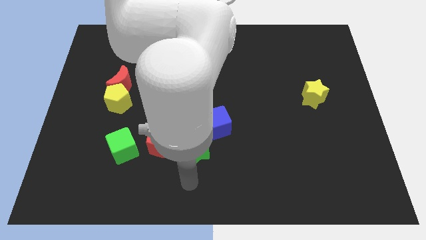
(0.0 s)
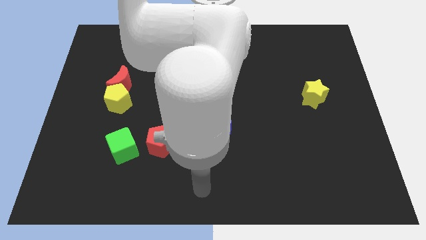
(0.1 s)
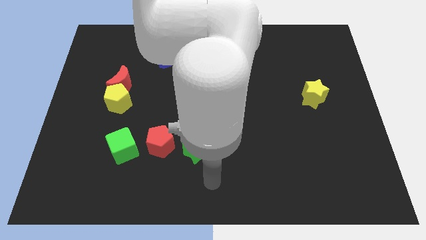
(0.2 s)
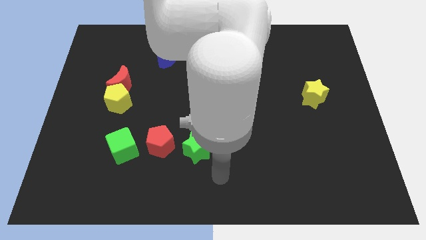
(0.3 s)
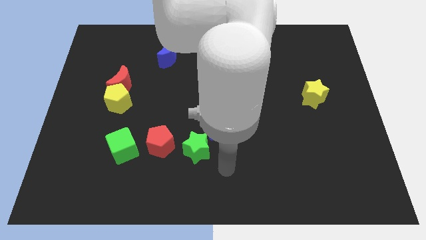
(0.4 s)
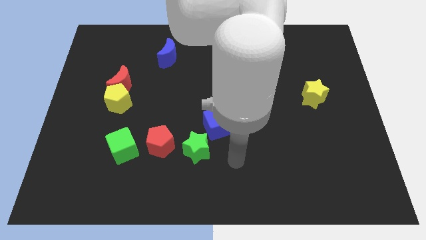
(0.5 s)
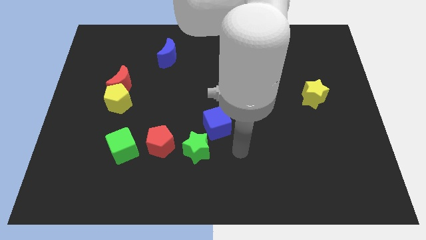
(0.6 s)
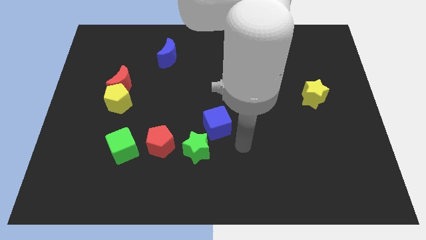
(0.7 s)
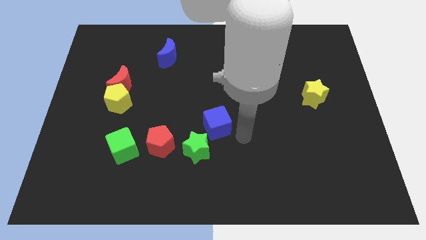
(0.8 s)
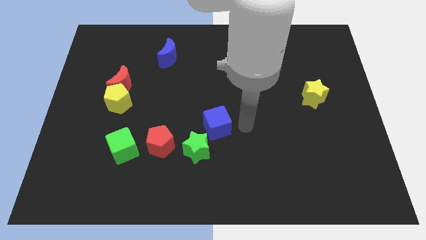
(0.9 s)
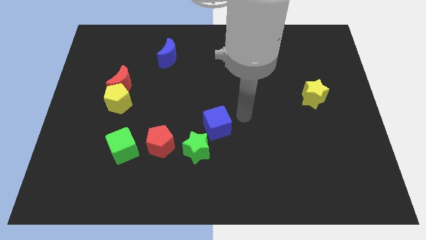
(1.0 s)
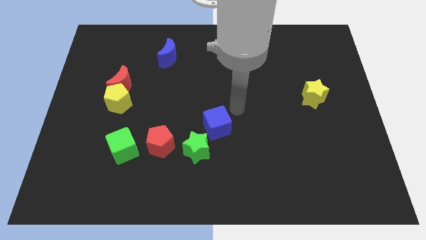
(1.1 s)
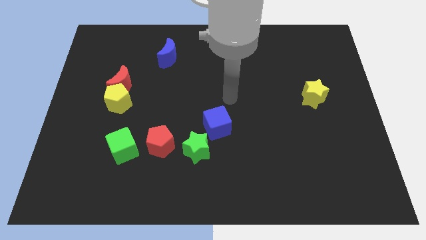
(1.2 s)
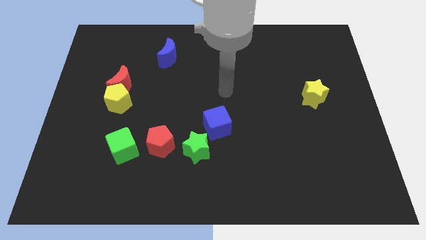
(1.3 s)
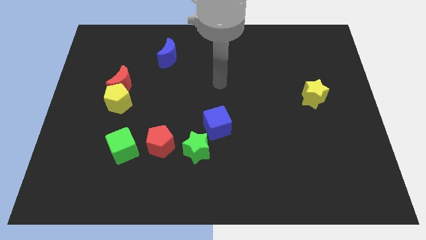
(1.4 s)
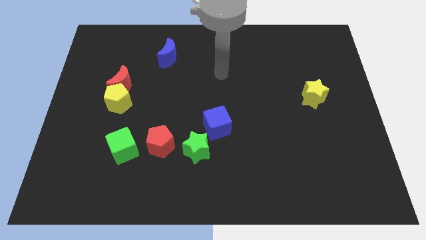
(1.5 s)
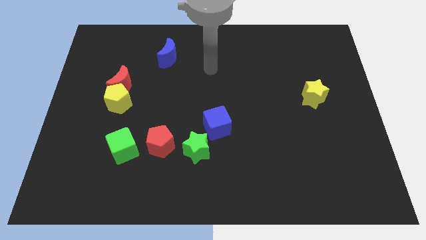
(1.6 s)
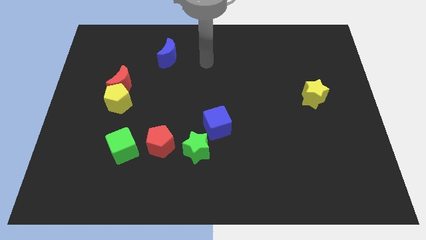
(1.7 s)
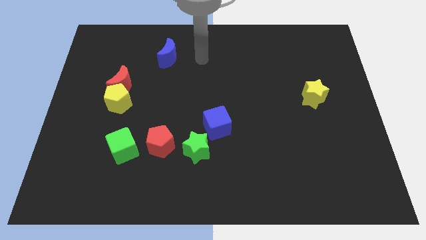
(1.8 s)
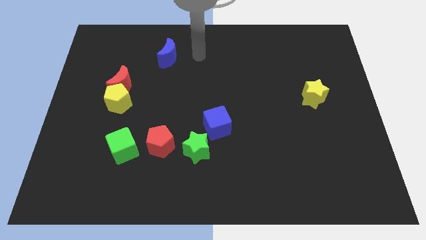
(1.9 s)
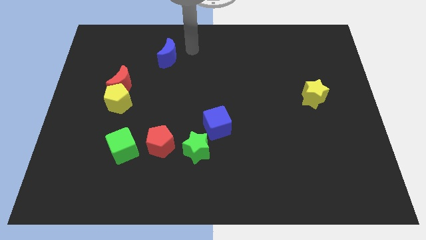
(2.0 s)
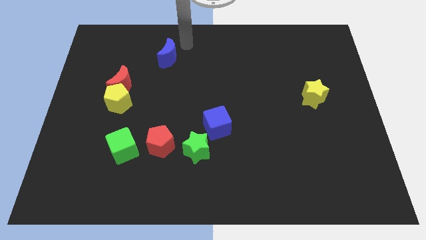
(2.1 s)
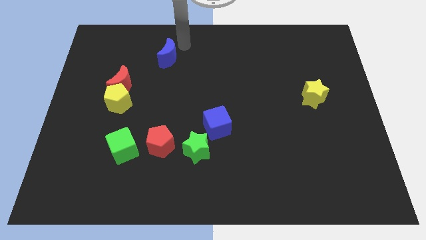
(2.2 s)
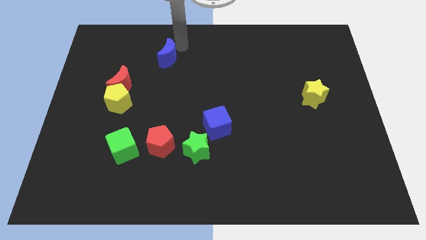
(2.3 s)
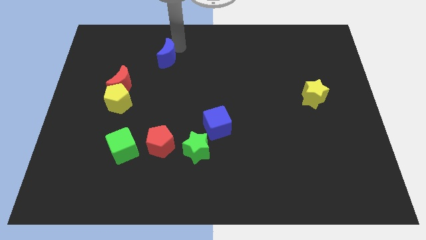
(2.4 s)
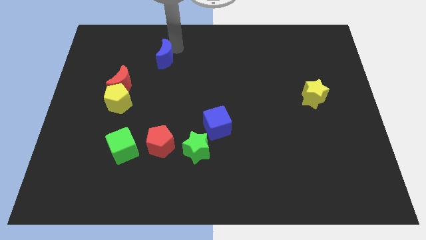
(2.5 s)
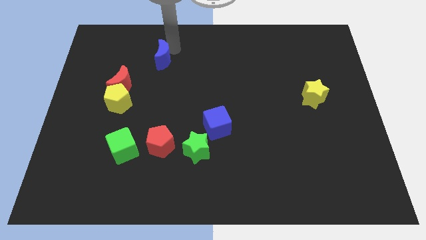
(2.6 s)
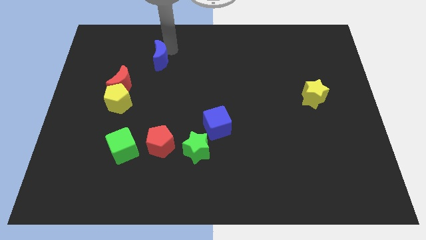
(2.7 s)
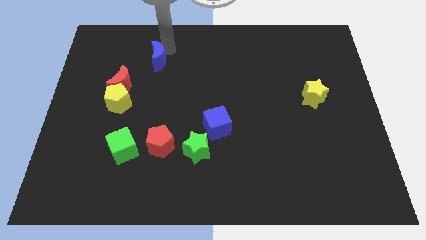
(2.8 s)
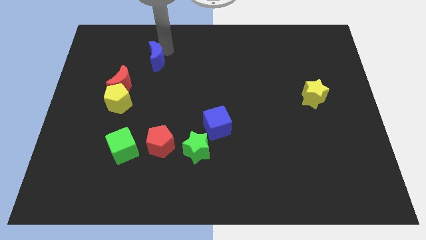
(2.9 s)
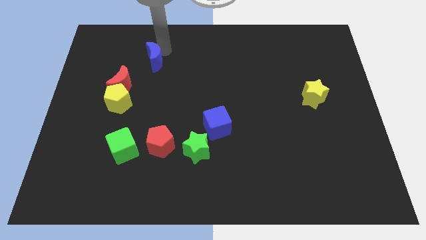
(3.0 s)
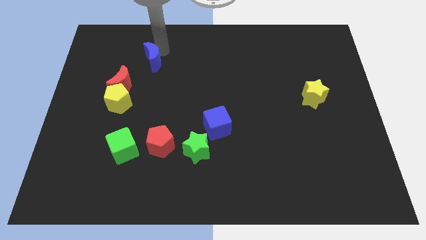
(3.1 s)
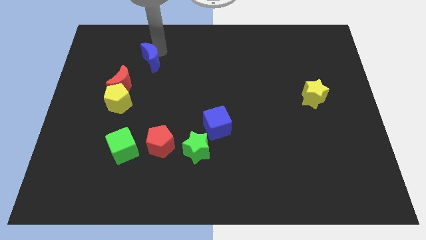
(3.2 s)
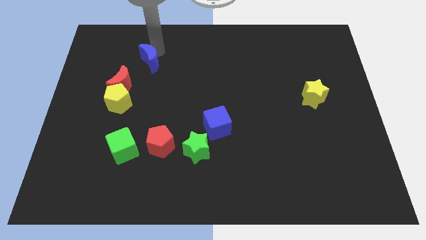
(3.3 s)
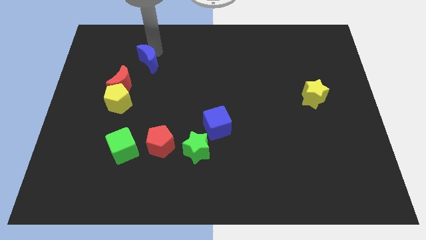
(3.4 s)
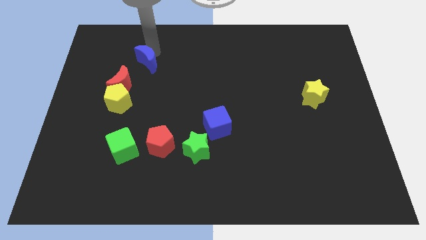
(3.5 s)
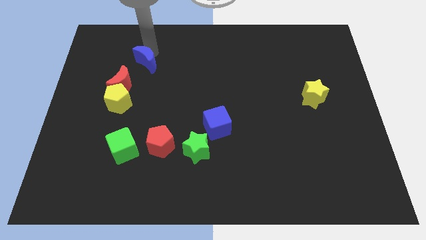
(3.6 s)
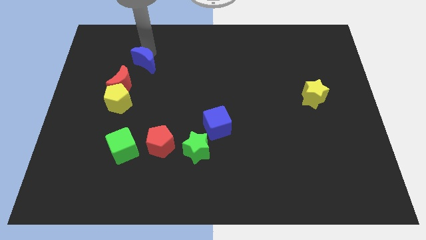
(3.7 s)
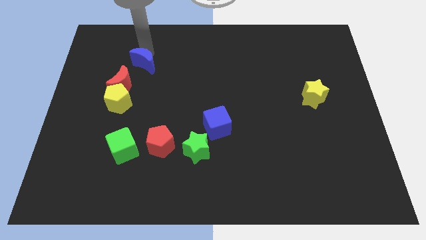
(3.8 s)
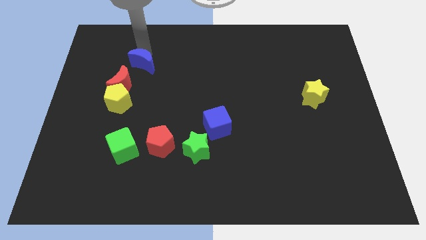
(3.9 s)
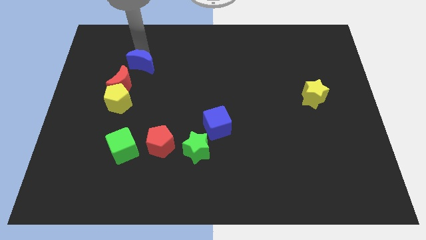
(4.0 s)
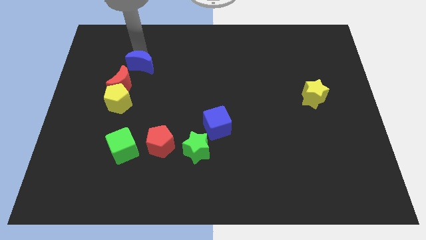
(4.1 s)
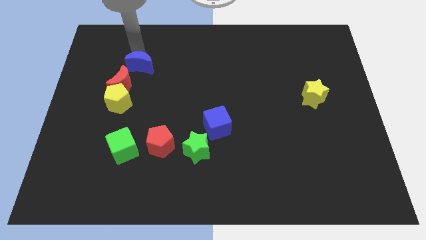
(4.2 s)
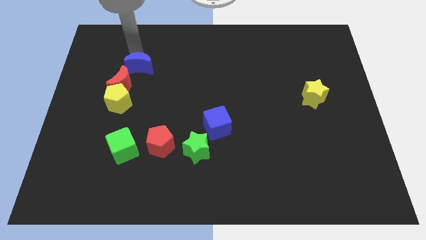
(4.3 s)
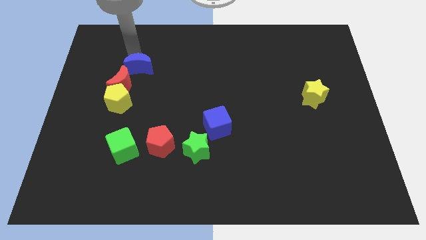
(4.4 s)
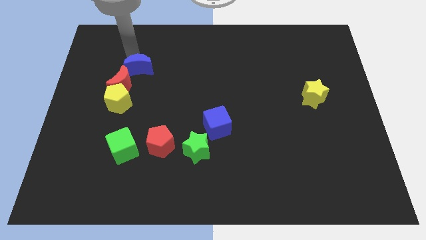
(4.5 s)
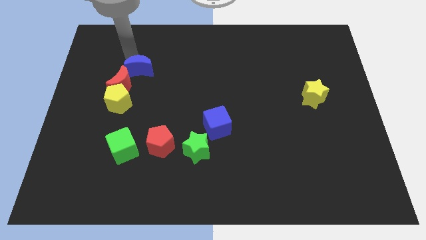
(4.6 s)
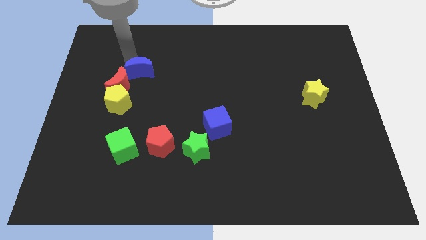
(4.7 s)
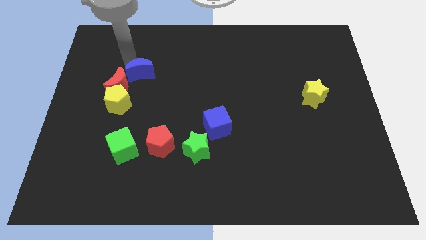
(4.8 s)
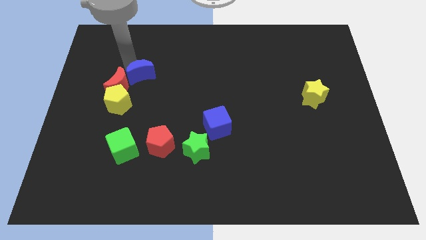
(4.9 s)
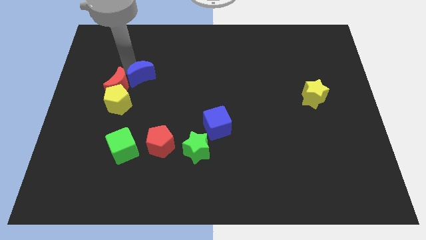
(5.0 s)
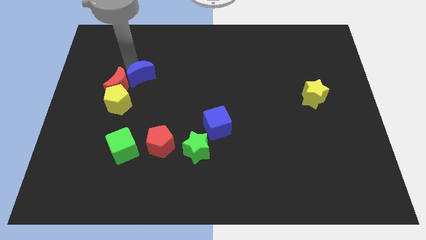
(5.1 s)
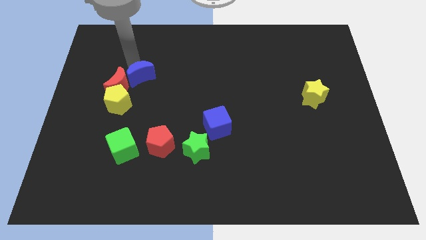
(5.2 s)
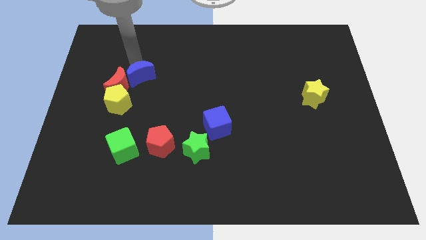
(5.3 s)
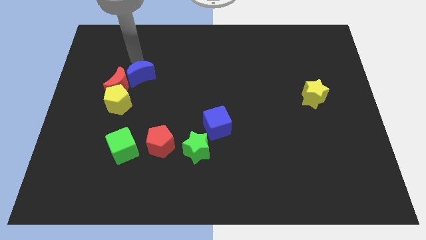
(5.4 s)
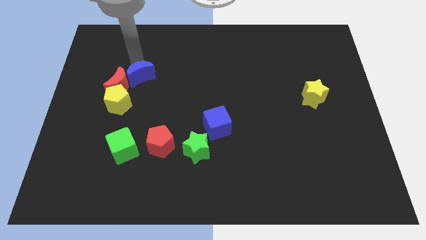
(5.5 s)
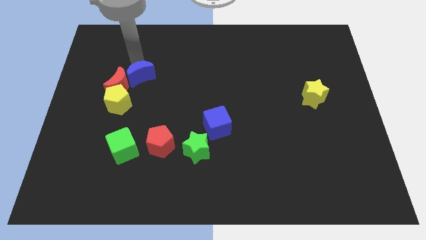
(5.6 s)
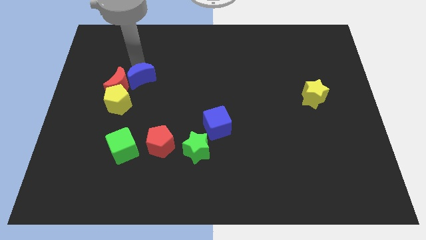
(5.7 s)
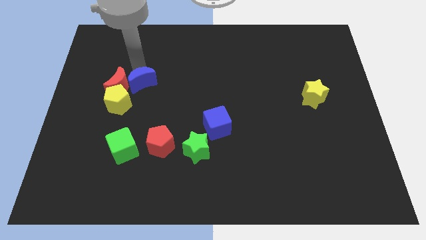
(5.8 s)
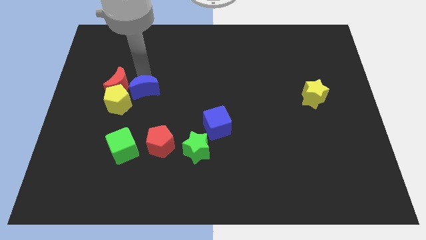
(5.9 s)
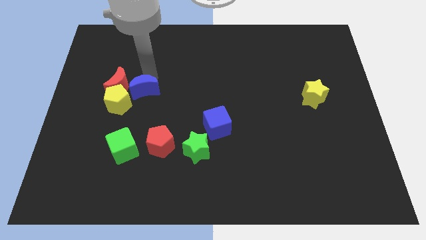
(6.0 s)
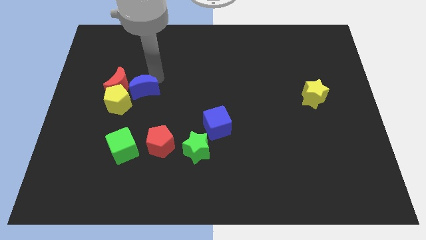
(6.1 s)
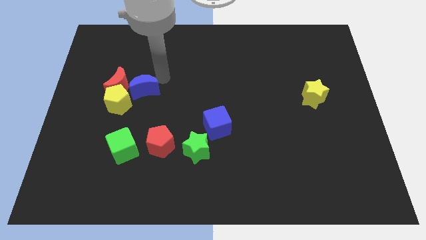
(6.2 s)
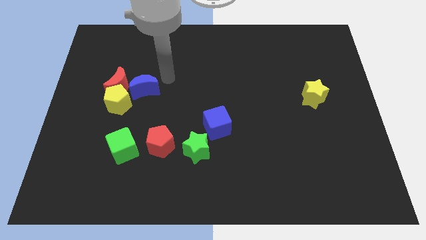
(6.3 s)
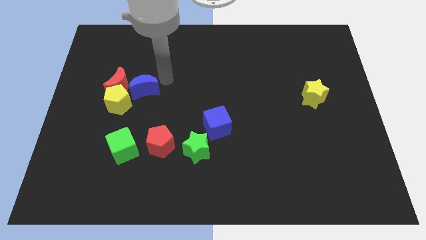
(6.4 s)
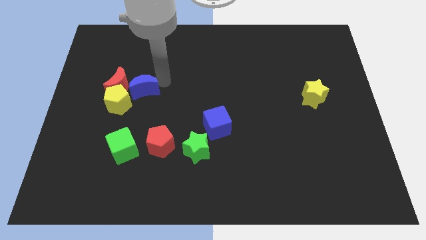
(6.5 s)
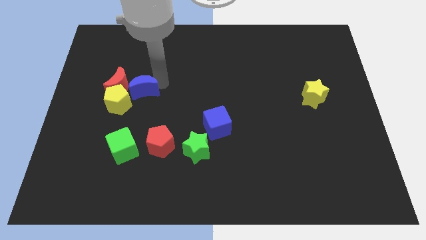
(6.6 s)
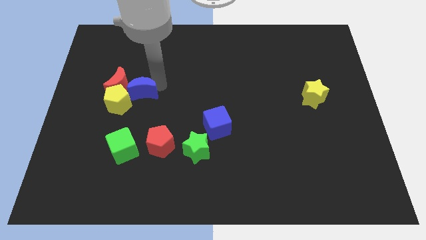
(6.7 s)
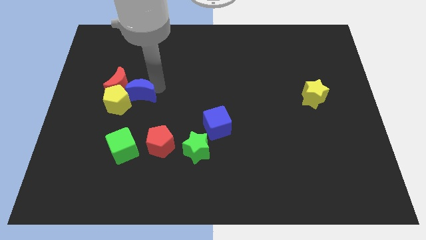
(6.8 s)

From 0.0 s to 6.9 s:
slide the blue moon close to the yellow pentagon

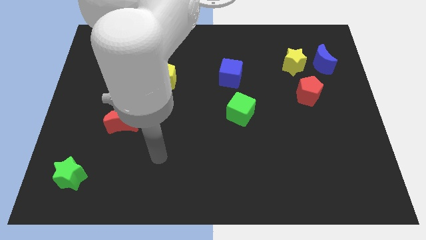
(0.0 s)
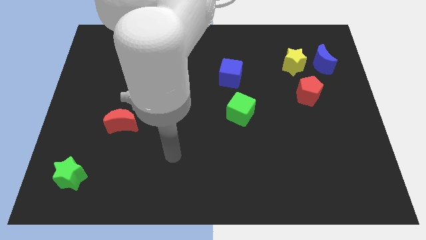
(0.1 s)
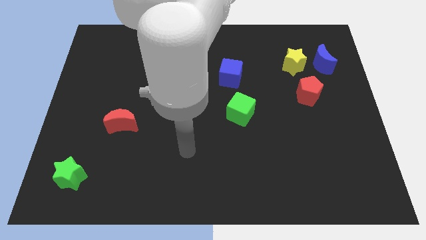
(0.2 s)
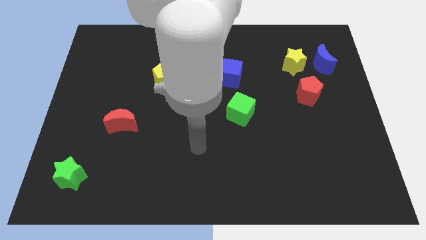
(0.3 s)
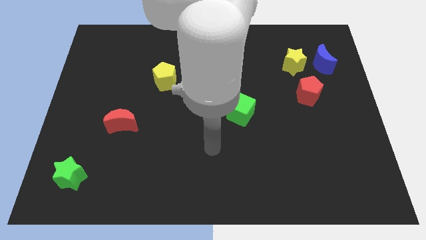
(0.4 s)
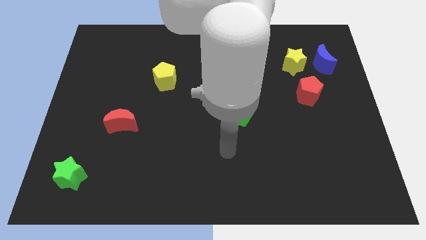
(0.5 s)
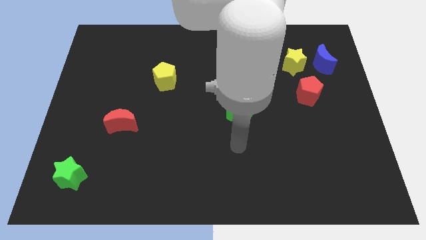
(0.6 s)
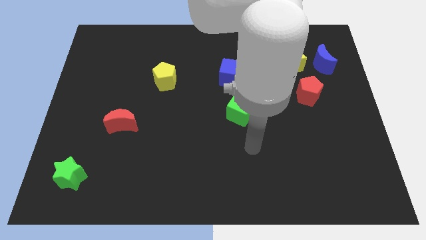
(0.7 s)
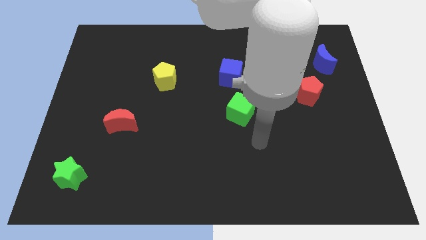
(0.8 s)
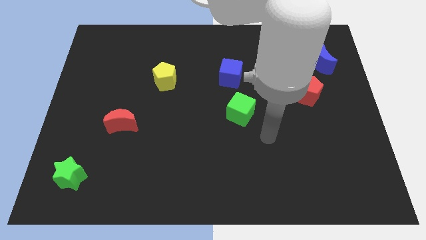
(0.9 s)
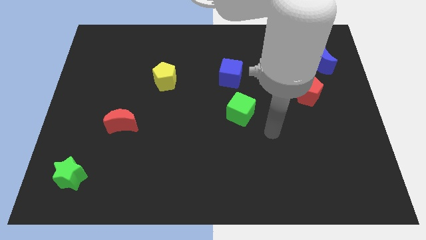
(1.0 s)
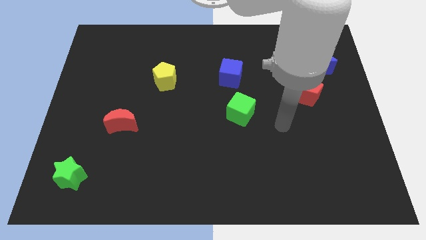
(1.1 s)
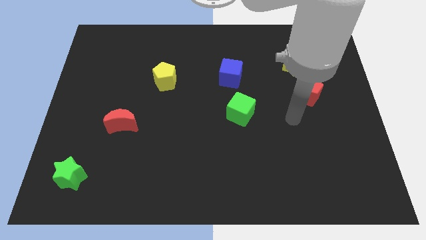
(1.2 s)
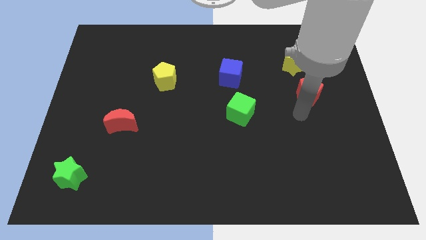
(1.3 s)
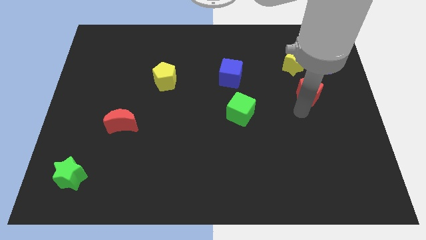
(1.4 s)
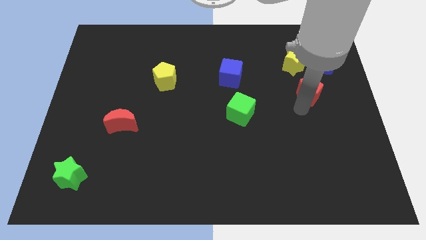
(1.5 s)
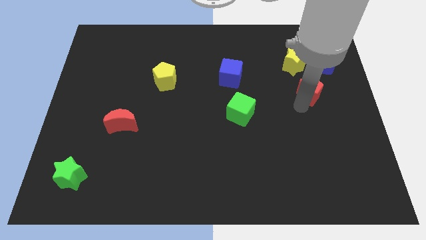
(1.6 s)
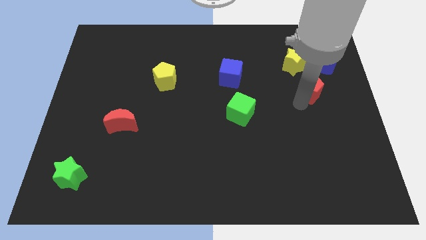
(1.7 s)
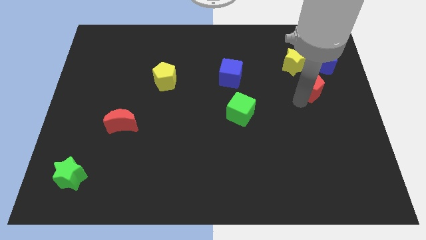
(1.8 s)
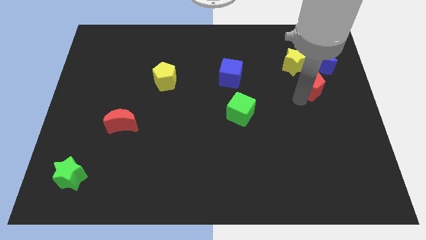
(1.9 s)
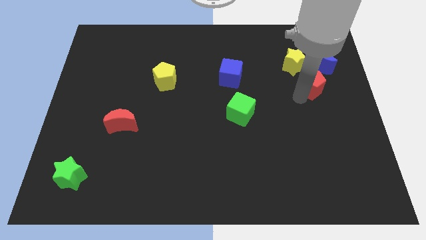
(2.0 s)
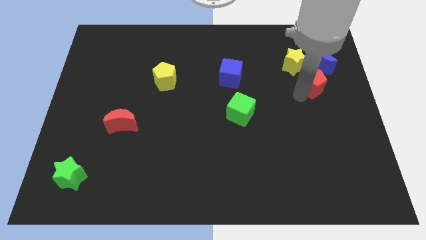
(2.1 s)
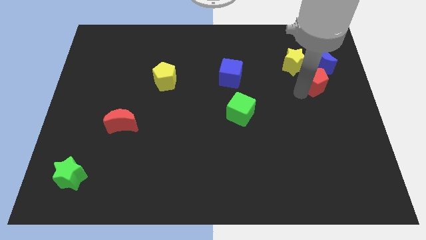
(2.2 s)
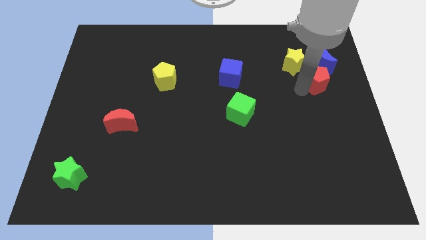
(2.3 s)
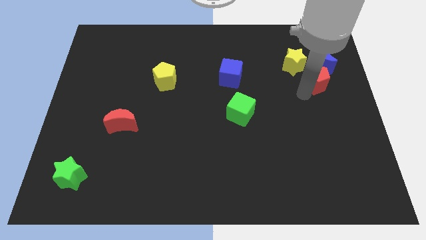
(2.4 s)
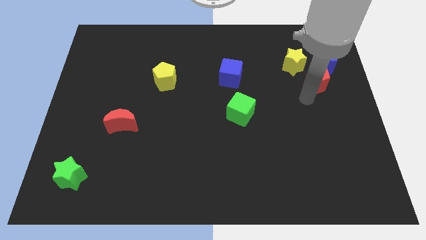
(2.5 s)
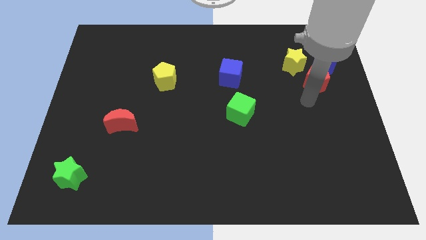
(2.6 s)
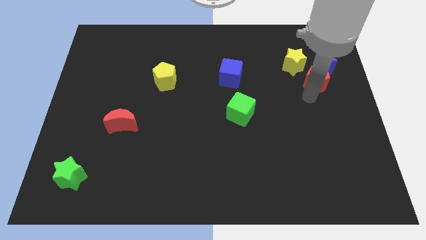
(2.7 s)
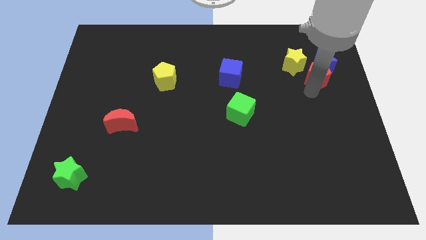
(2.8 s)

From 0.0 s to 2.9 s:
slide the red pentagon towards the blue moon
